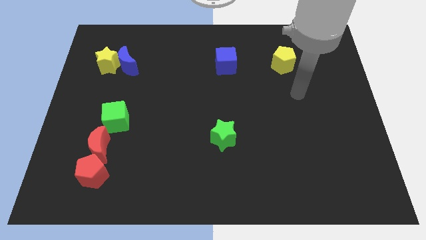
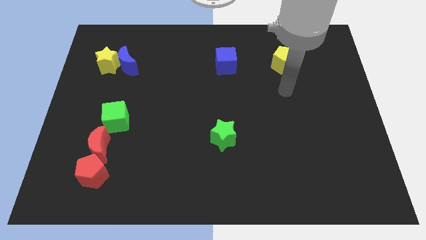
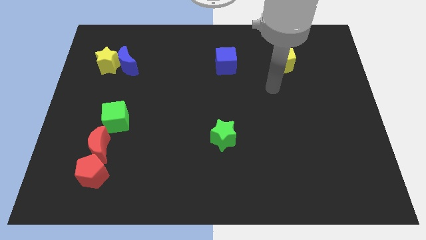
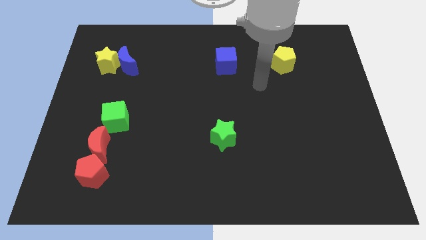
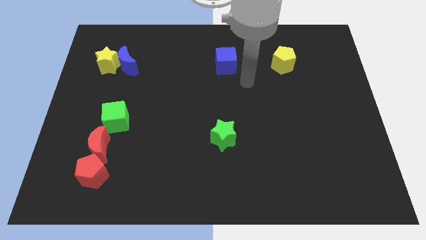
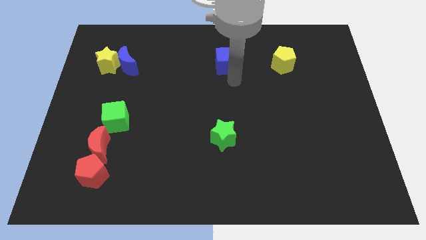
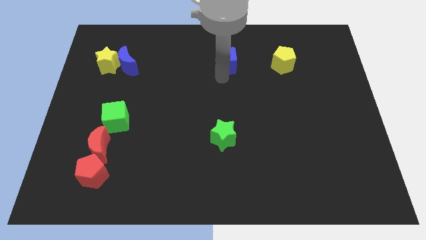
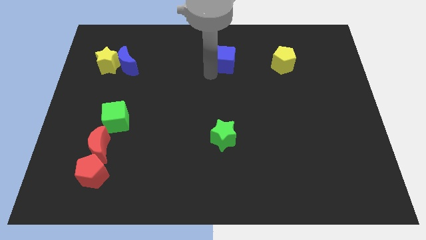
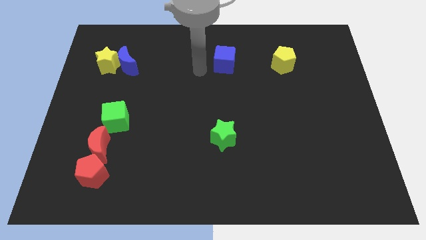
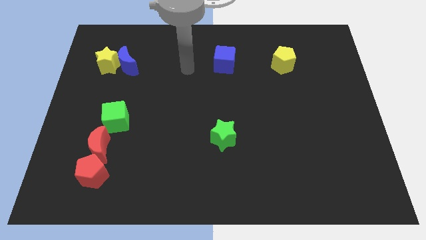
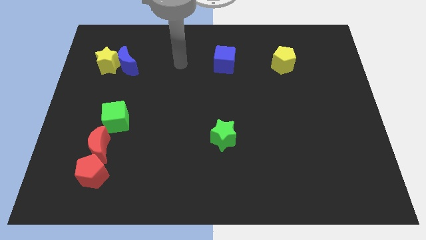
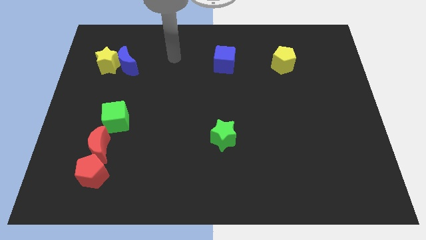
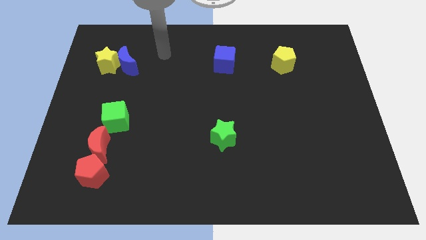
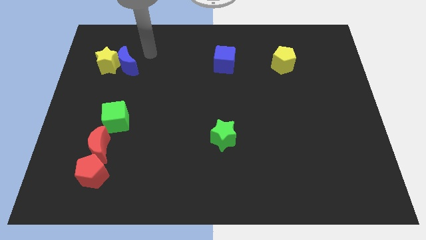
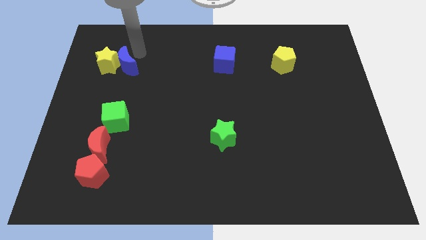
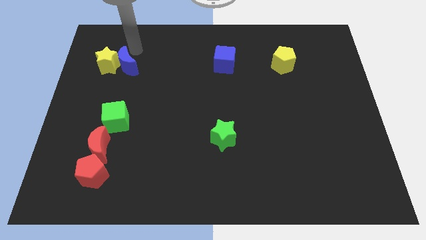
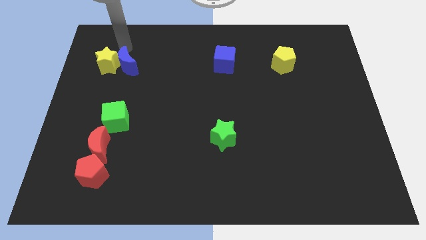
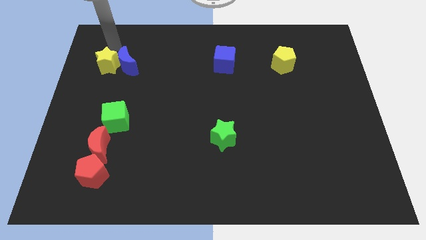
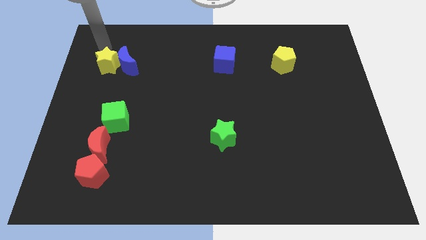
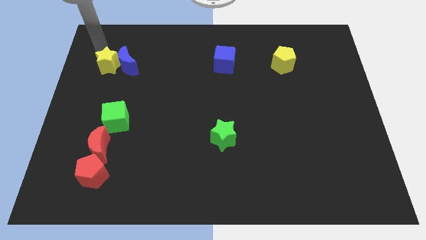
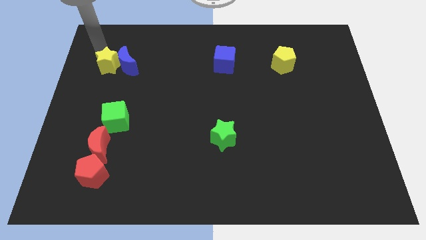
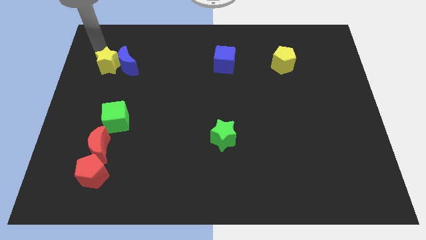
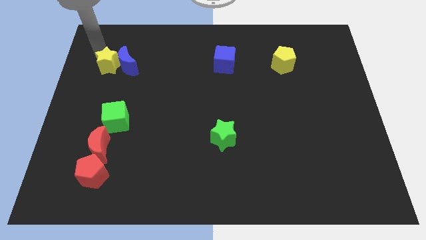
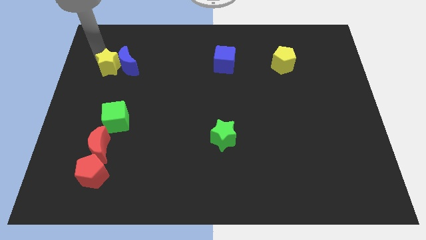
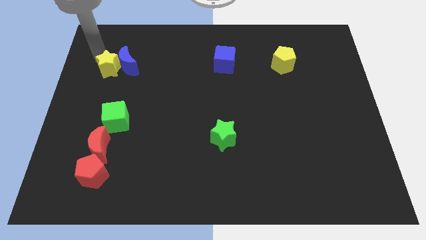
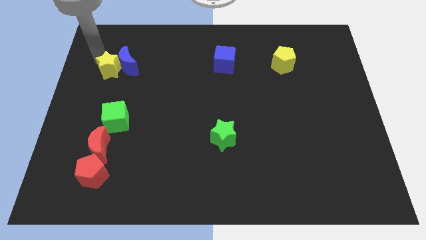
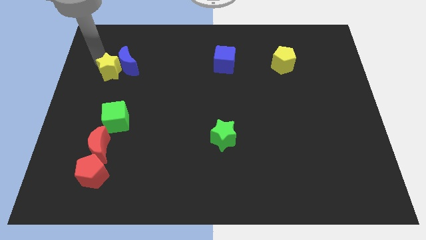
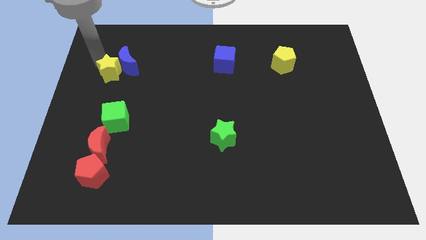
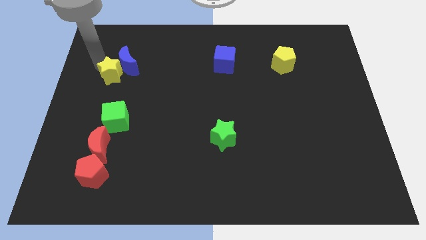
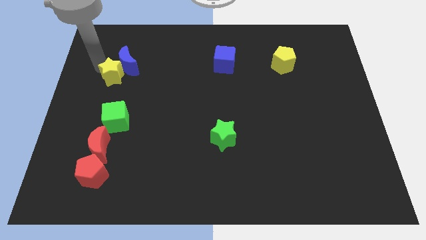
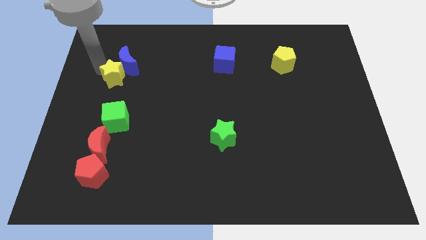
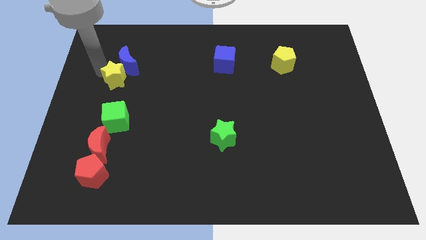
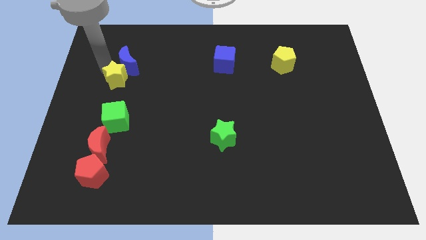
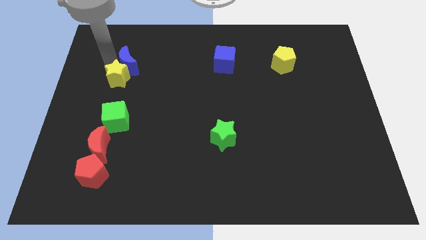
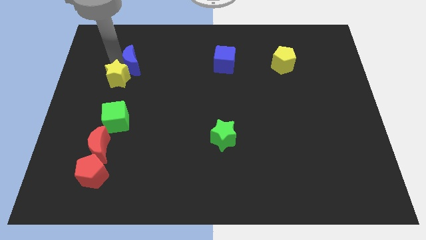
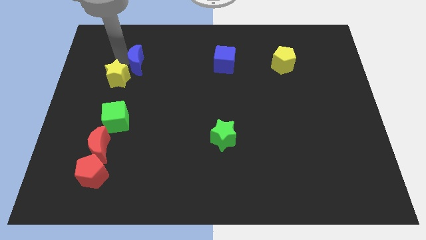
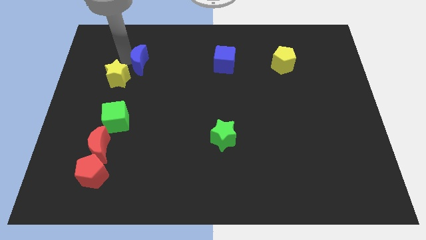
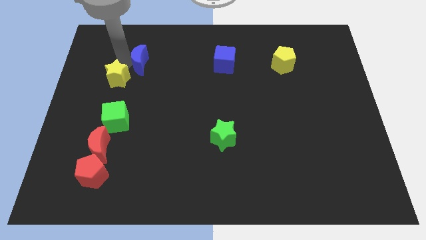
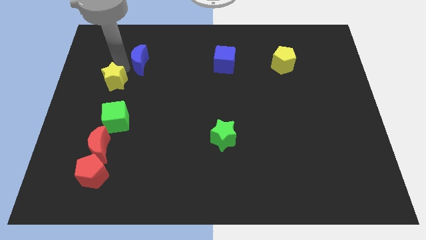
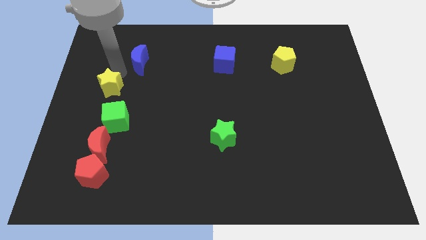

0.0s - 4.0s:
push the yellow star somewhat downwards

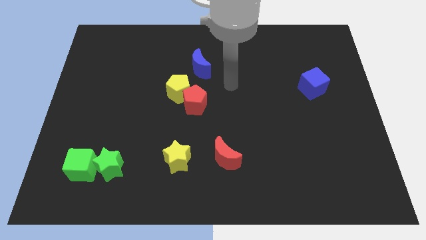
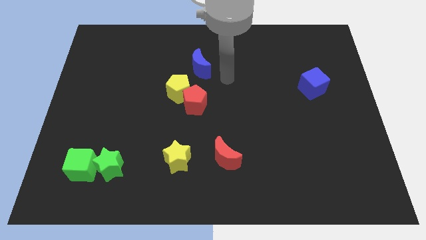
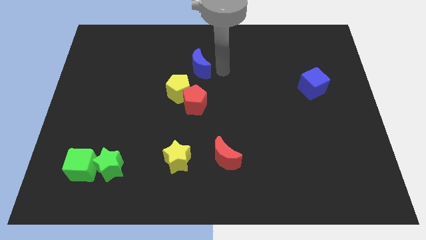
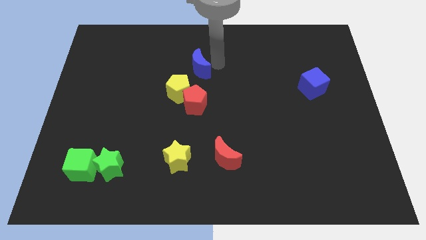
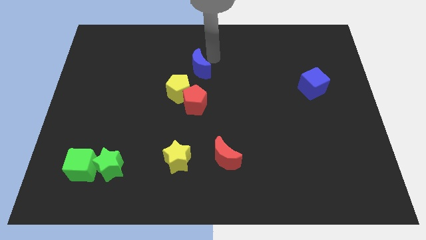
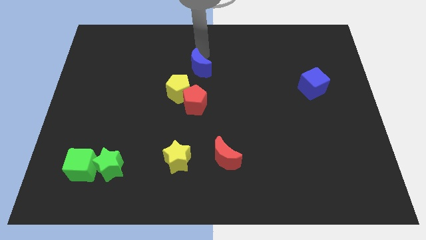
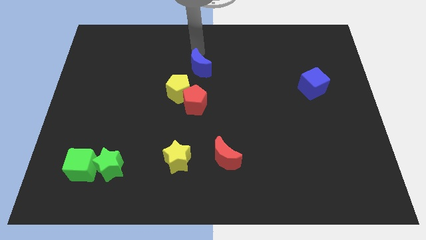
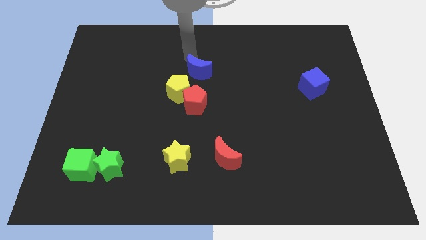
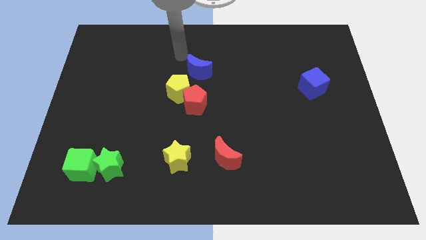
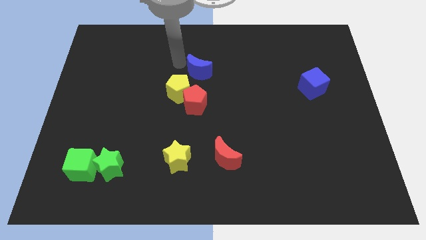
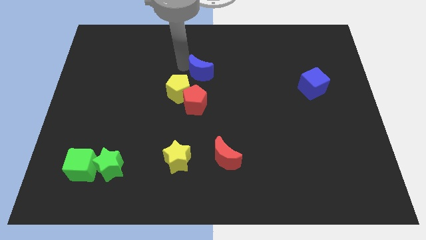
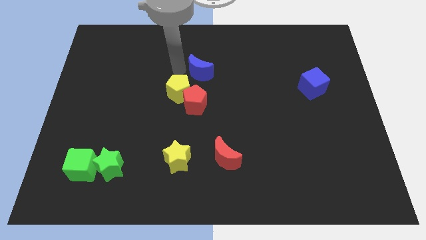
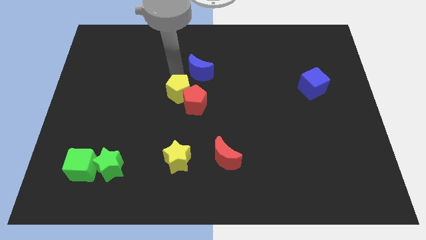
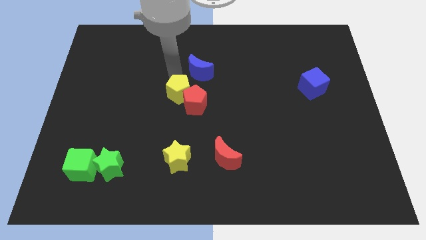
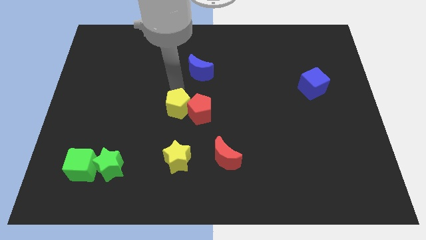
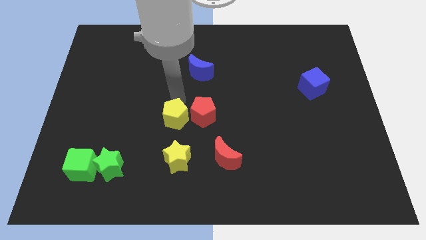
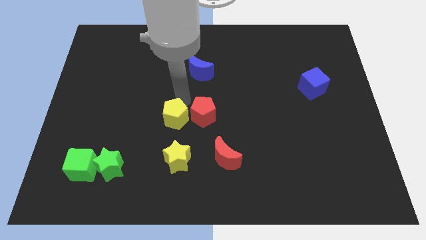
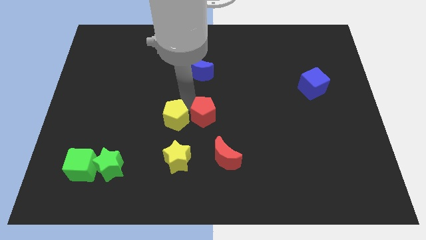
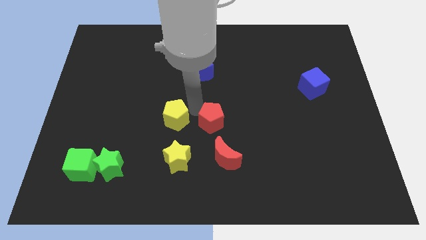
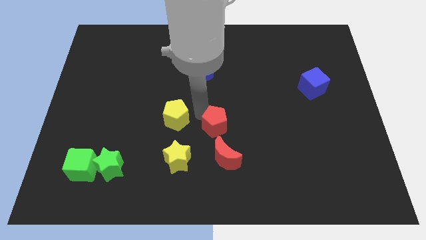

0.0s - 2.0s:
push the red pentagon somewhat diagonally downwards and to the right

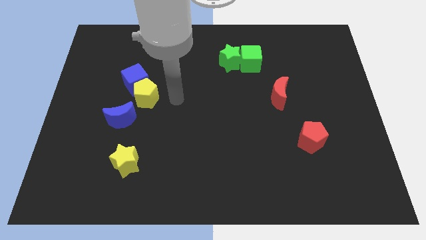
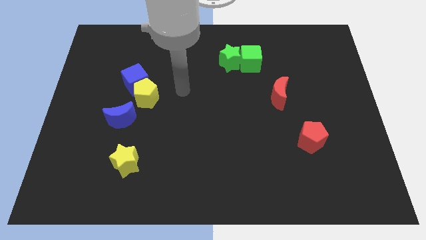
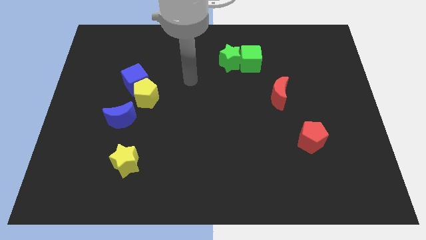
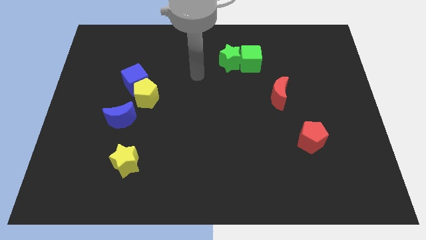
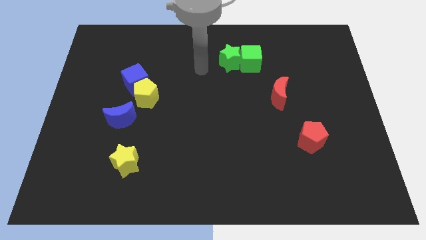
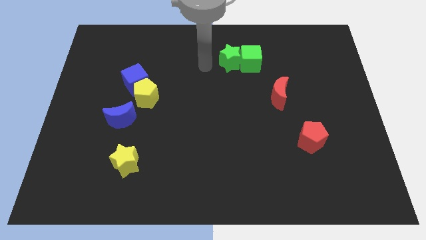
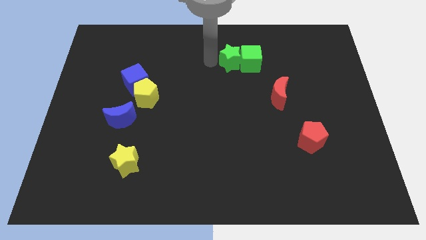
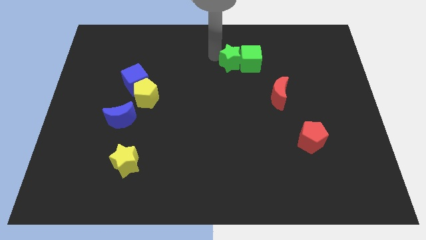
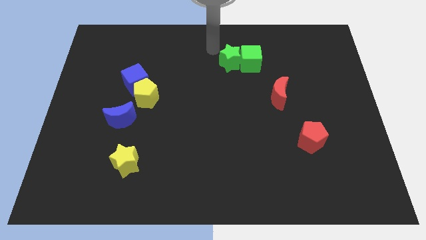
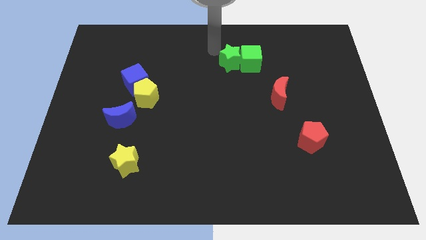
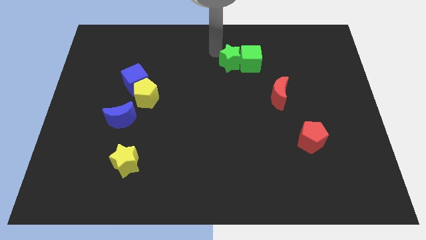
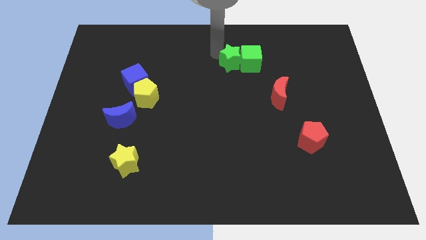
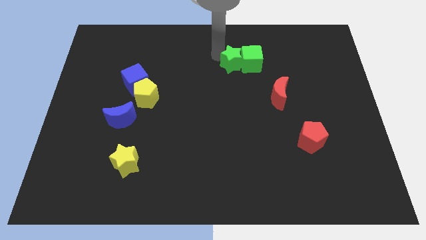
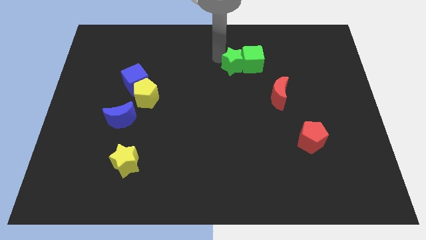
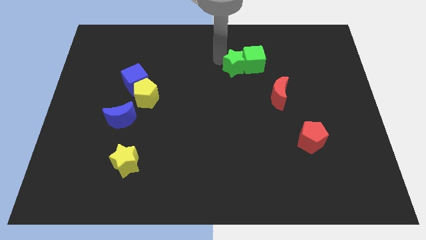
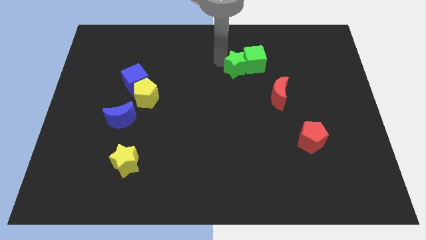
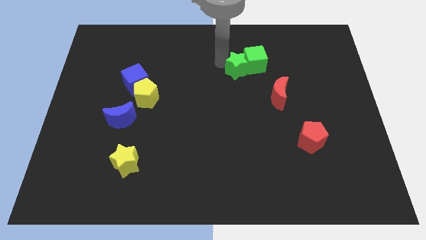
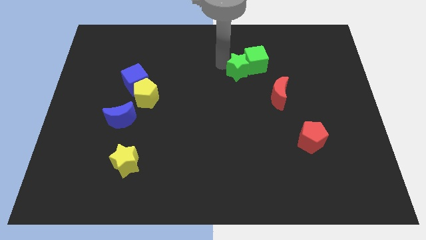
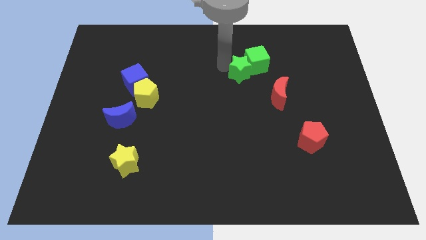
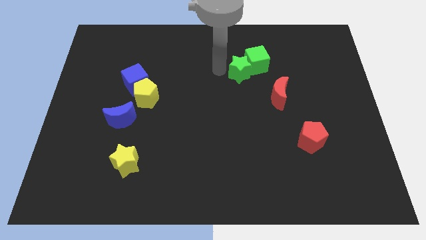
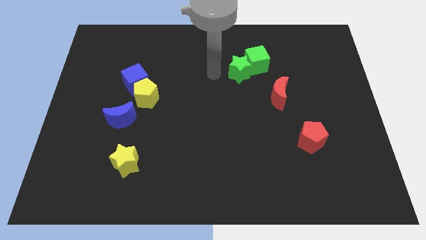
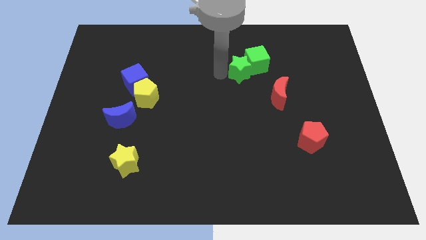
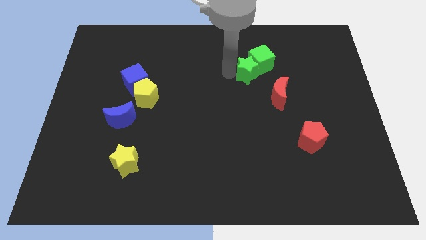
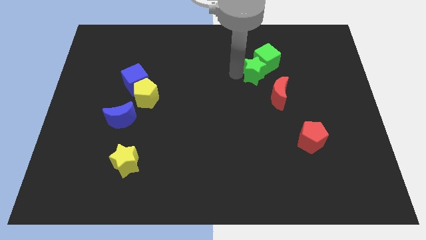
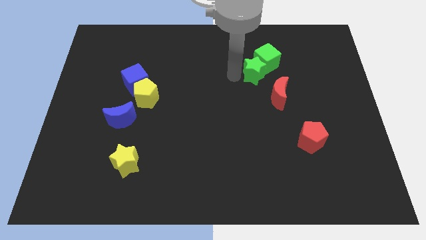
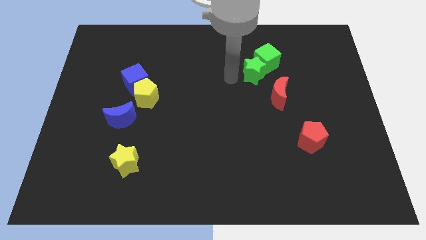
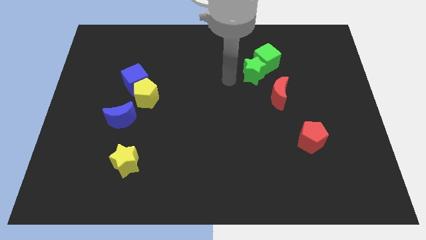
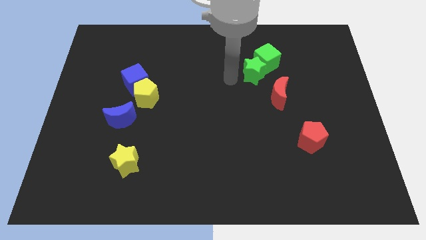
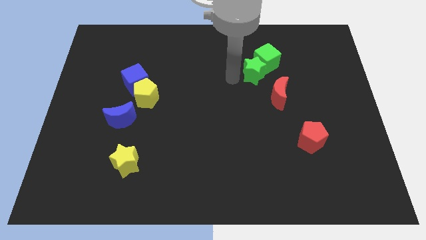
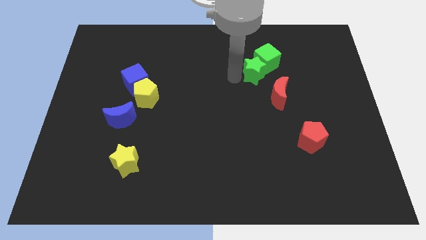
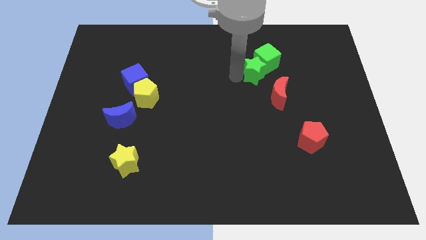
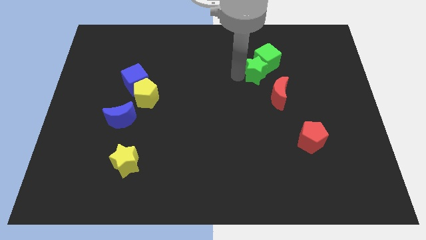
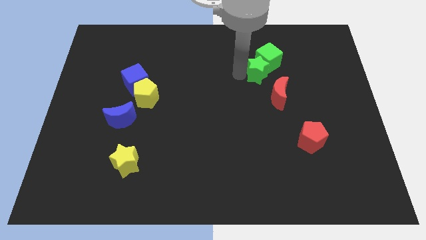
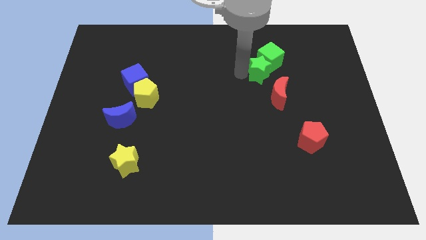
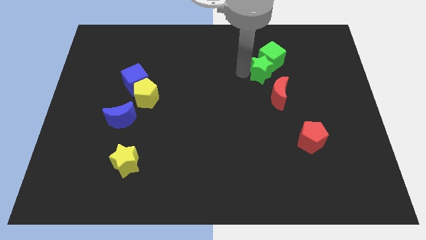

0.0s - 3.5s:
push the green star a bit to the right
